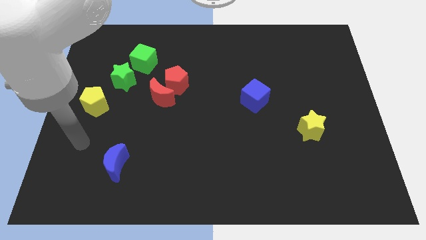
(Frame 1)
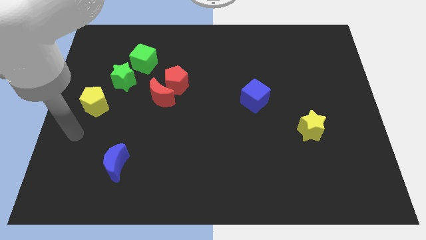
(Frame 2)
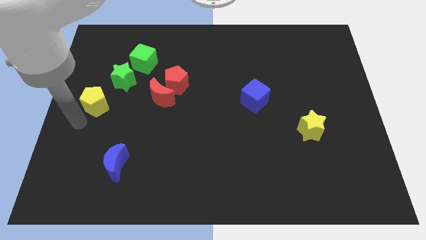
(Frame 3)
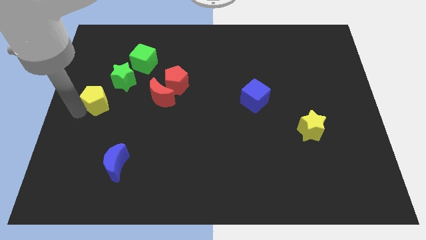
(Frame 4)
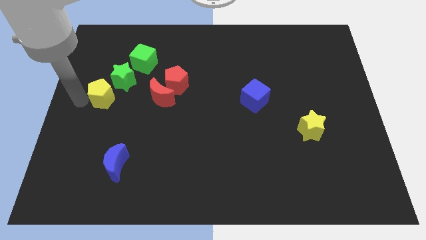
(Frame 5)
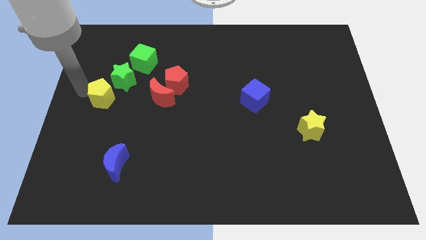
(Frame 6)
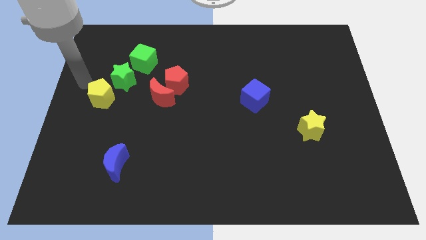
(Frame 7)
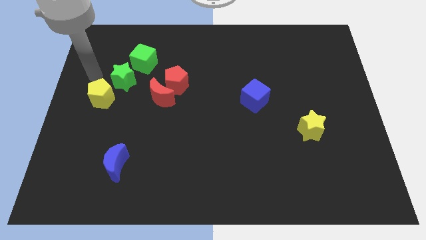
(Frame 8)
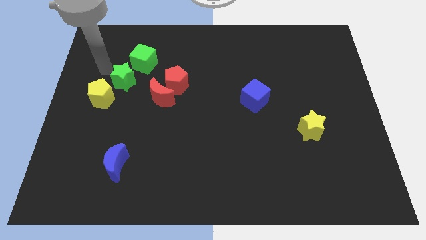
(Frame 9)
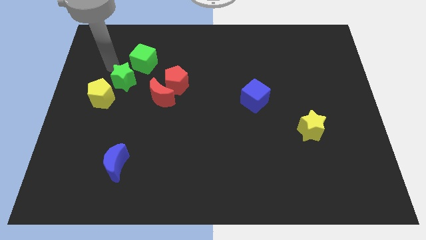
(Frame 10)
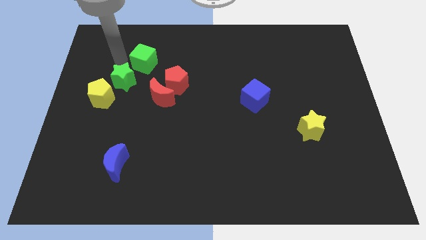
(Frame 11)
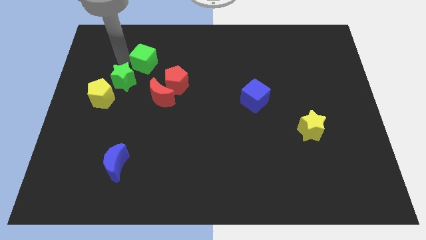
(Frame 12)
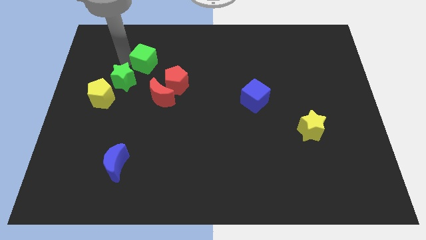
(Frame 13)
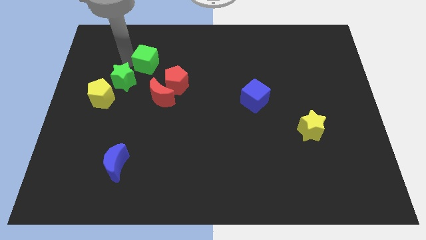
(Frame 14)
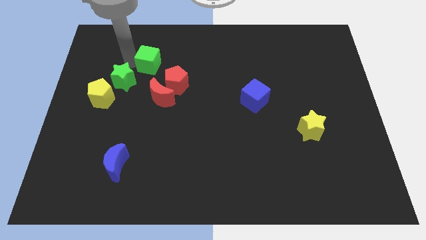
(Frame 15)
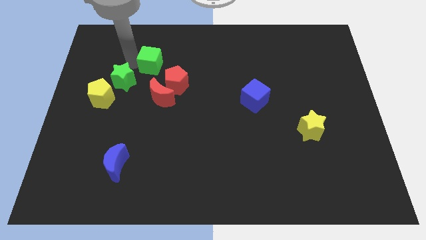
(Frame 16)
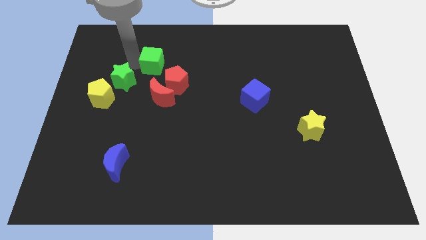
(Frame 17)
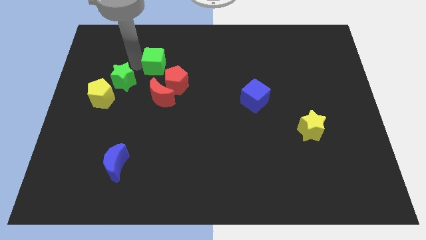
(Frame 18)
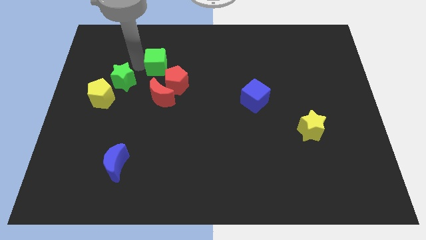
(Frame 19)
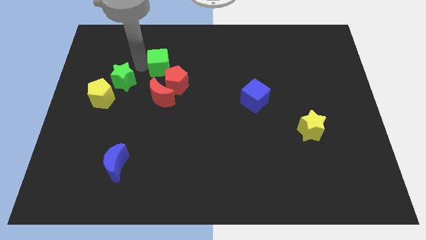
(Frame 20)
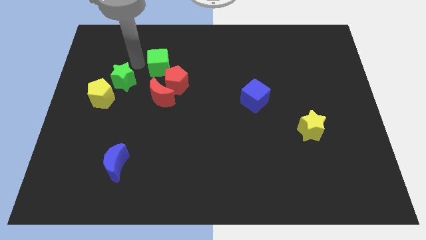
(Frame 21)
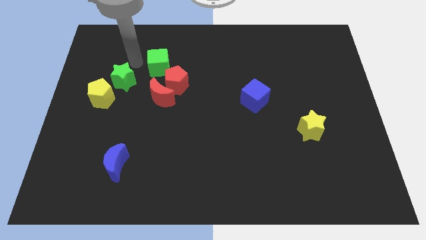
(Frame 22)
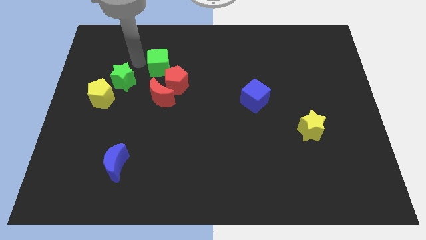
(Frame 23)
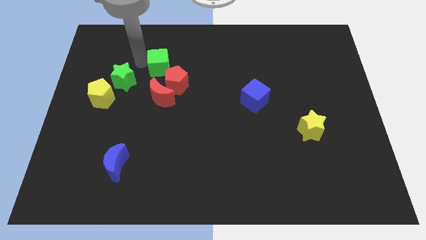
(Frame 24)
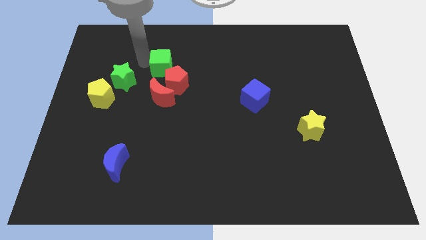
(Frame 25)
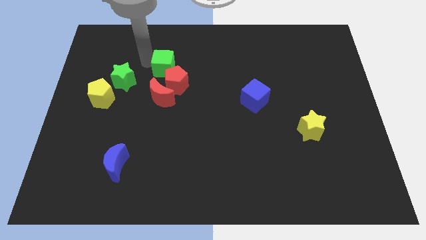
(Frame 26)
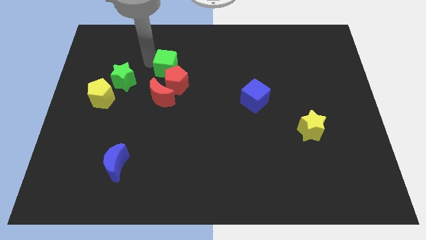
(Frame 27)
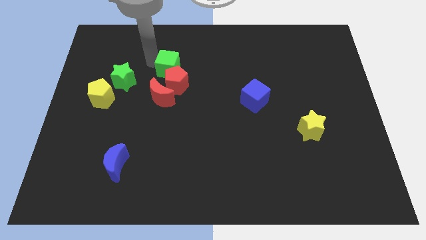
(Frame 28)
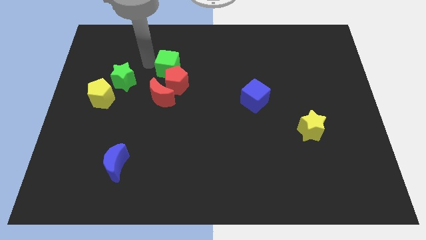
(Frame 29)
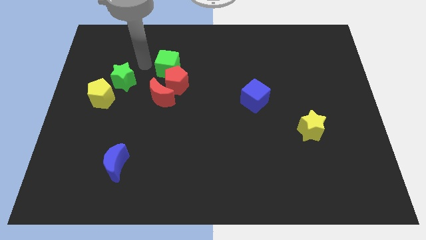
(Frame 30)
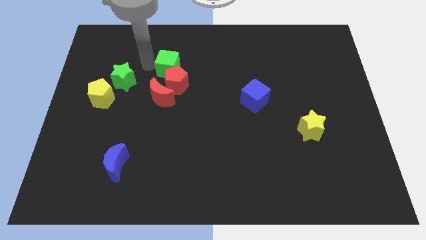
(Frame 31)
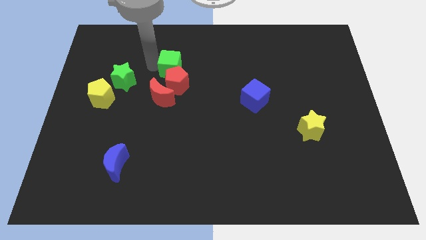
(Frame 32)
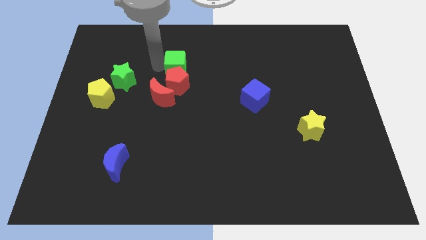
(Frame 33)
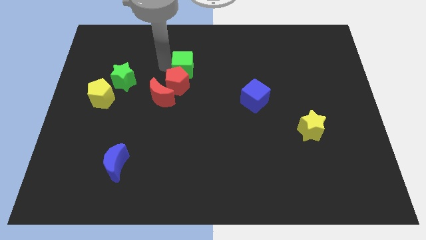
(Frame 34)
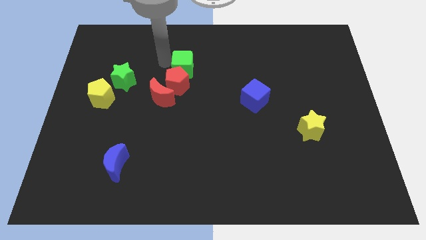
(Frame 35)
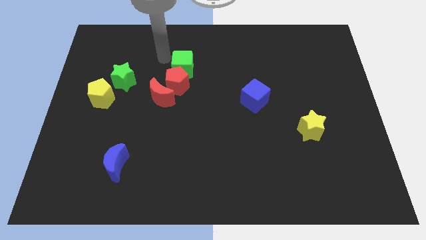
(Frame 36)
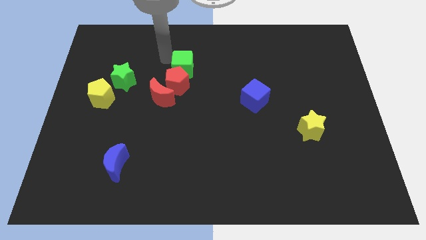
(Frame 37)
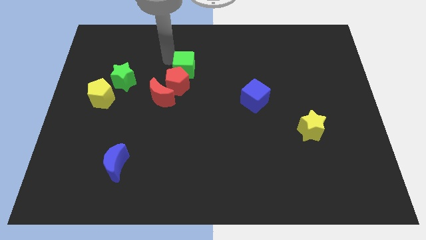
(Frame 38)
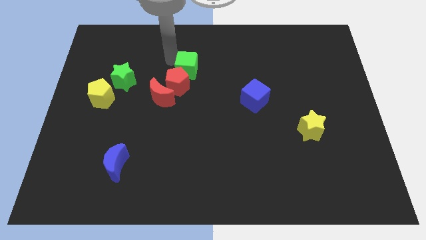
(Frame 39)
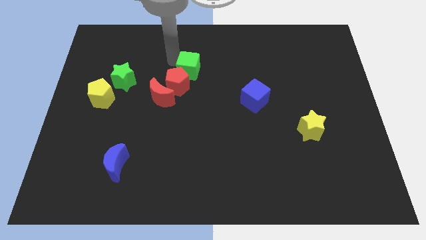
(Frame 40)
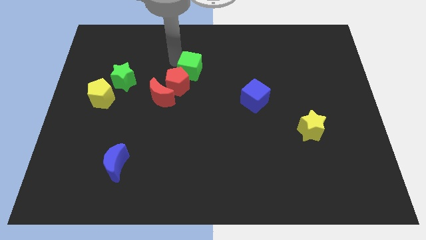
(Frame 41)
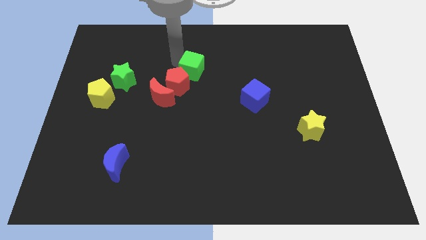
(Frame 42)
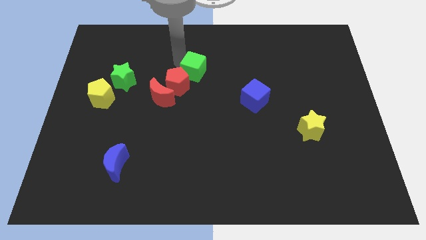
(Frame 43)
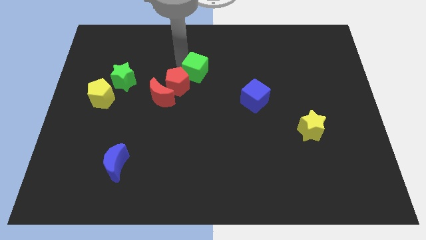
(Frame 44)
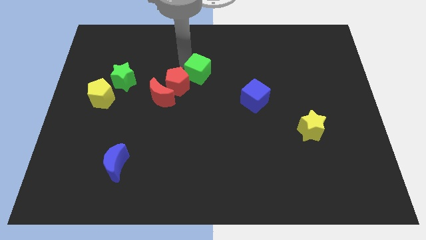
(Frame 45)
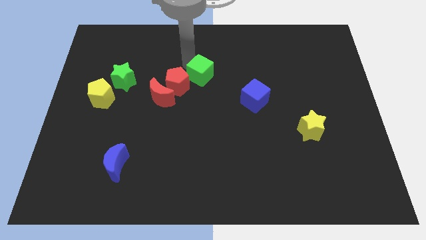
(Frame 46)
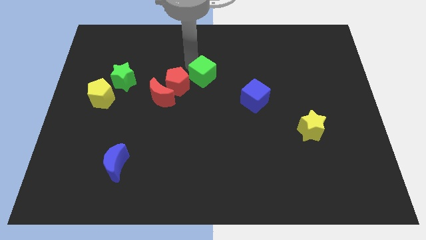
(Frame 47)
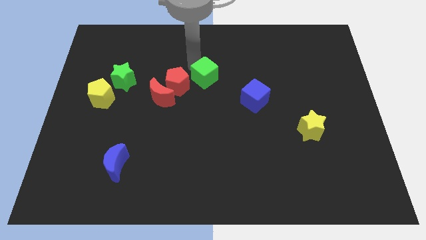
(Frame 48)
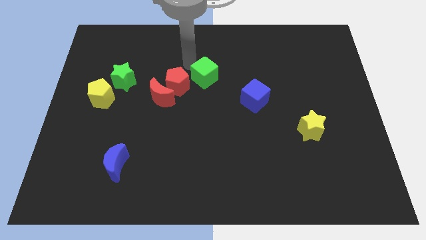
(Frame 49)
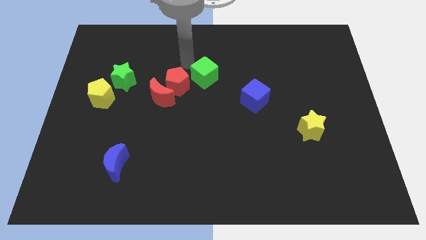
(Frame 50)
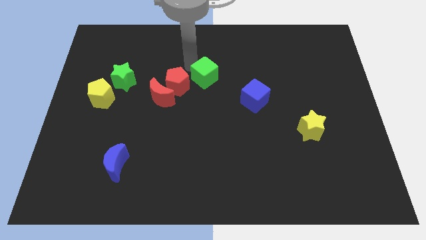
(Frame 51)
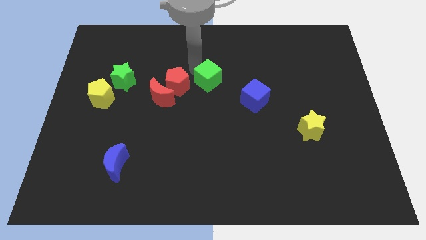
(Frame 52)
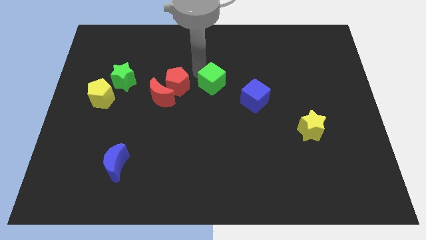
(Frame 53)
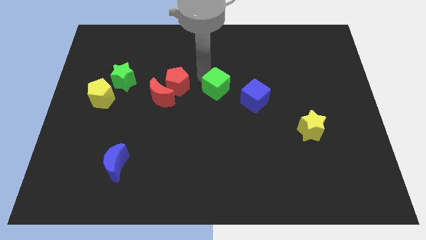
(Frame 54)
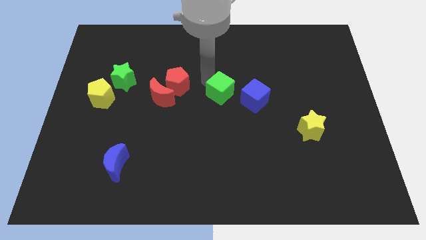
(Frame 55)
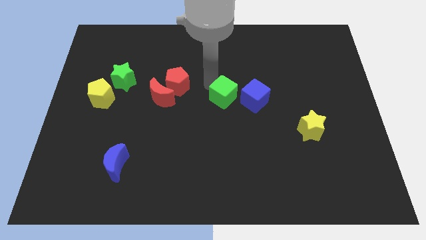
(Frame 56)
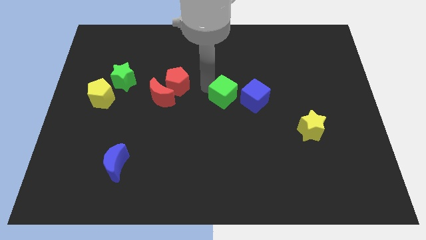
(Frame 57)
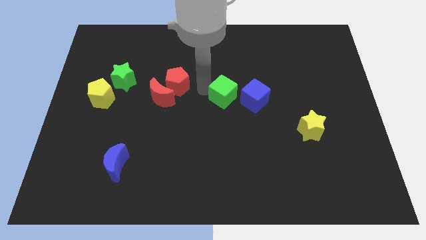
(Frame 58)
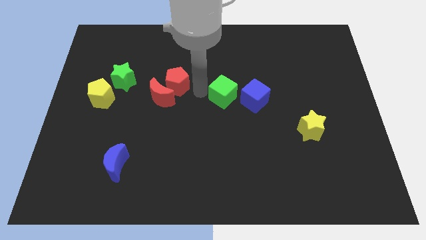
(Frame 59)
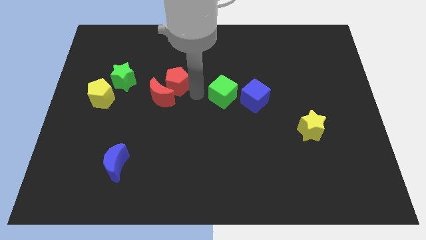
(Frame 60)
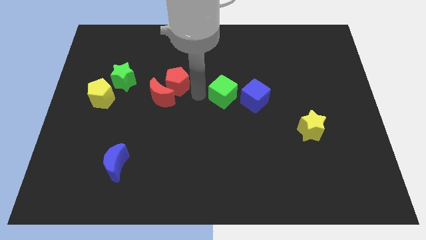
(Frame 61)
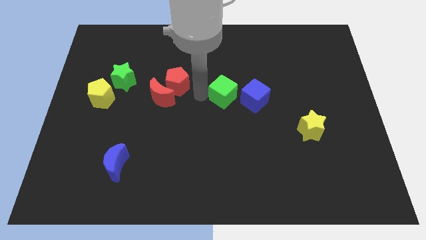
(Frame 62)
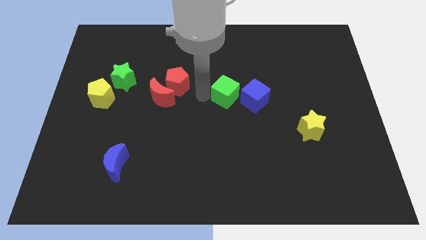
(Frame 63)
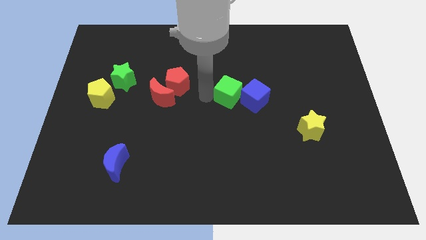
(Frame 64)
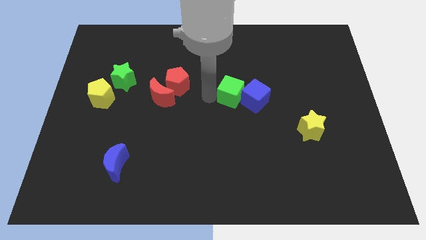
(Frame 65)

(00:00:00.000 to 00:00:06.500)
push the green cube next to the blue cube
